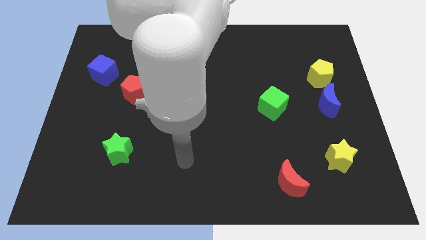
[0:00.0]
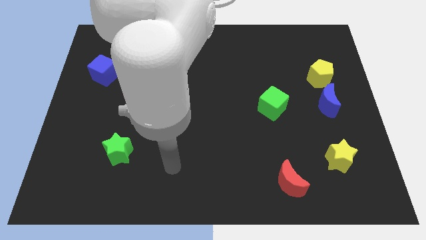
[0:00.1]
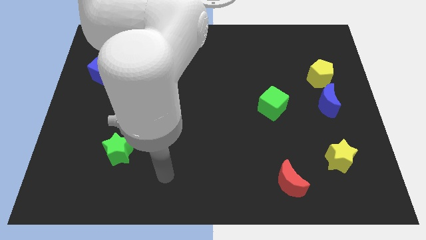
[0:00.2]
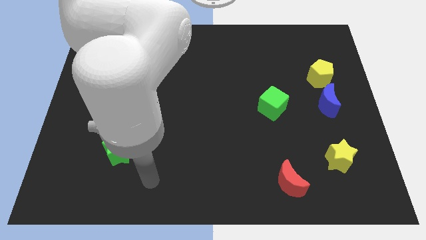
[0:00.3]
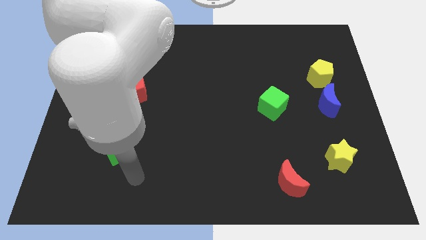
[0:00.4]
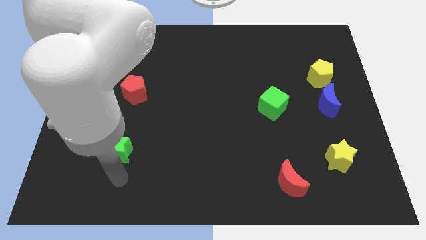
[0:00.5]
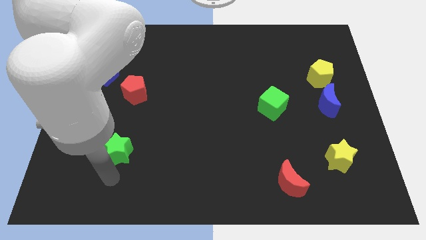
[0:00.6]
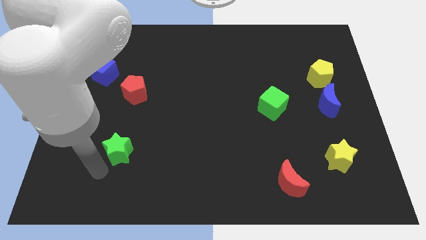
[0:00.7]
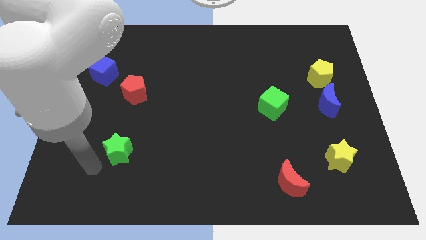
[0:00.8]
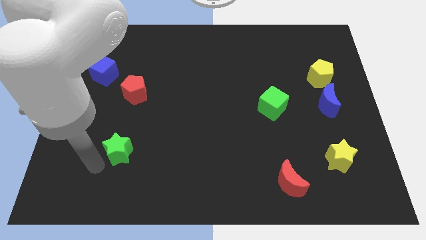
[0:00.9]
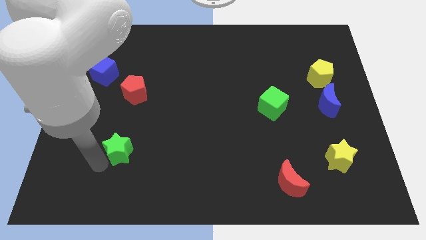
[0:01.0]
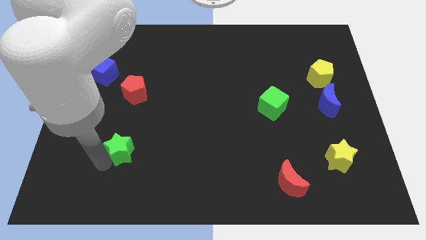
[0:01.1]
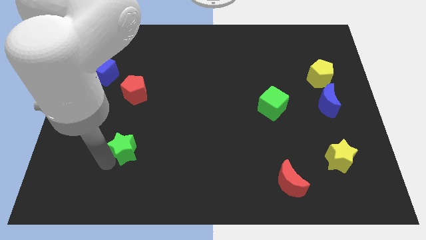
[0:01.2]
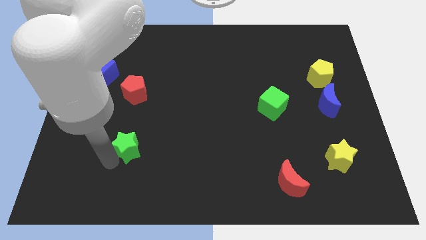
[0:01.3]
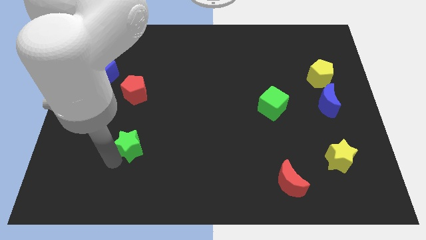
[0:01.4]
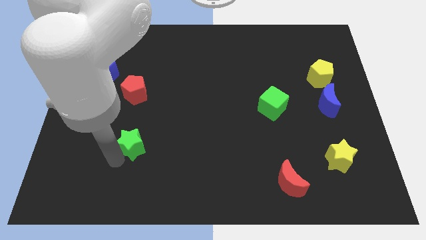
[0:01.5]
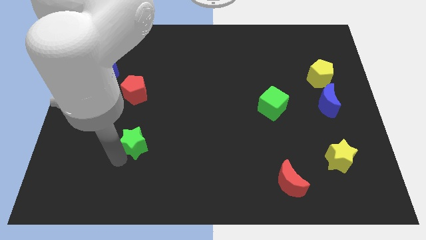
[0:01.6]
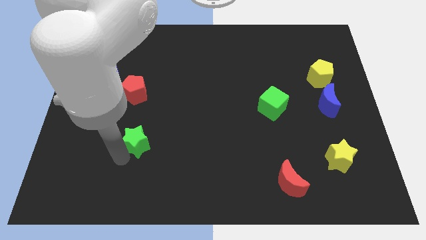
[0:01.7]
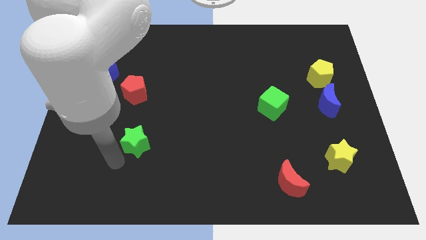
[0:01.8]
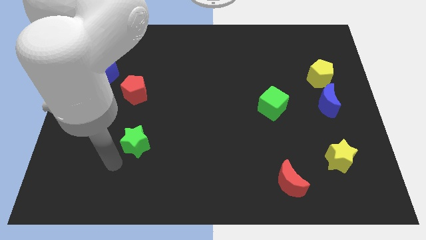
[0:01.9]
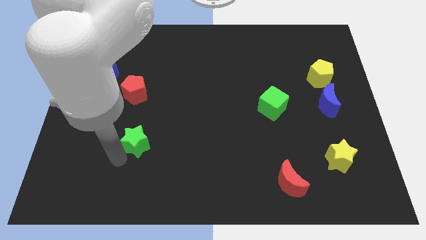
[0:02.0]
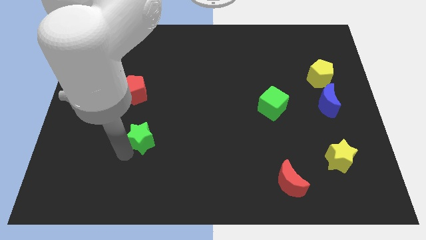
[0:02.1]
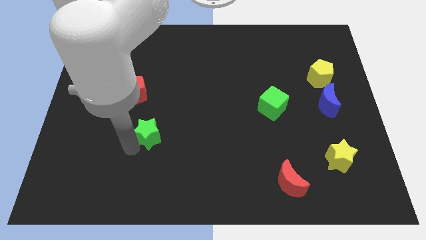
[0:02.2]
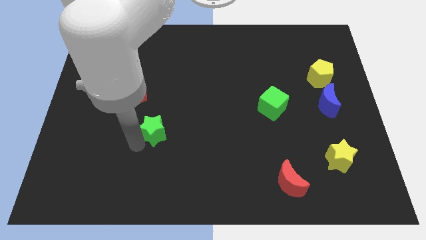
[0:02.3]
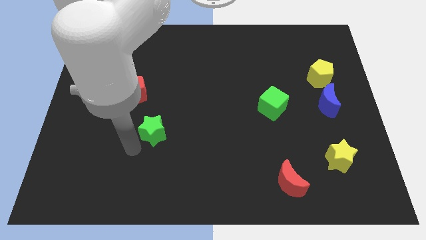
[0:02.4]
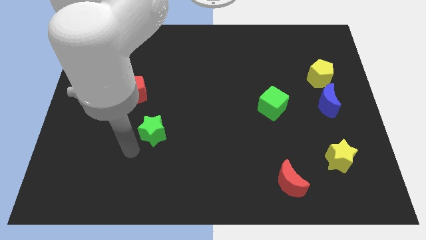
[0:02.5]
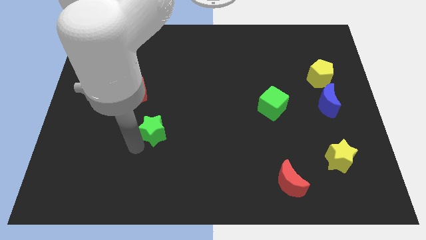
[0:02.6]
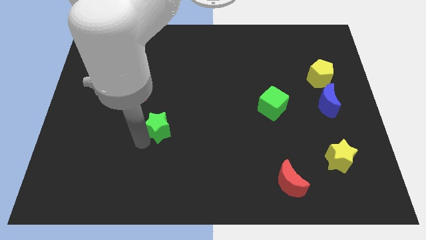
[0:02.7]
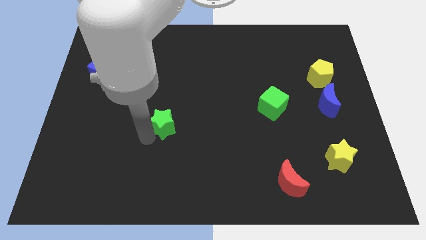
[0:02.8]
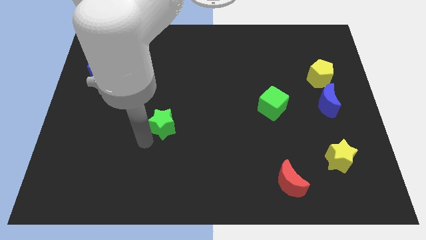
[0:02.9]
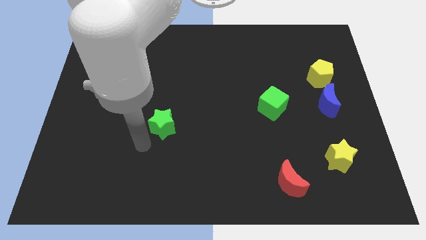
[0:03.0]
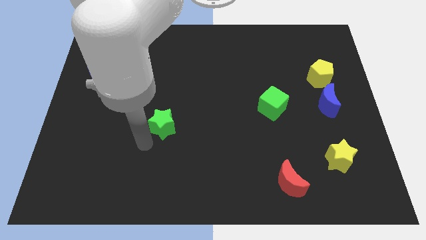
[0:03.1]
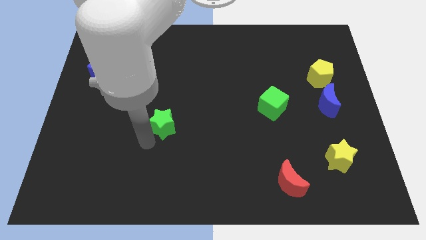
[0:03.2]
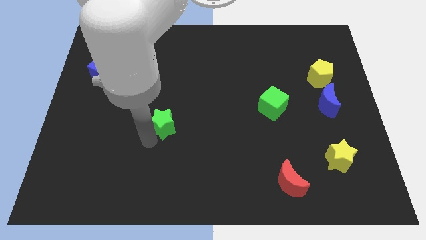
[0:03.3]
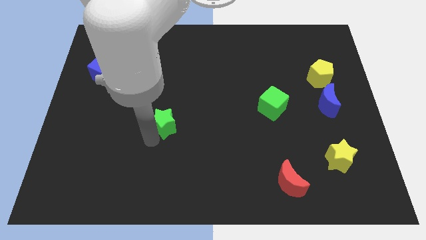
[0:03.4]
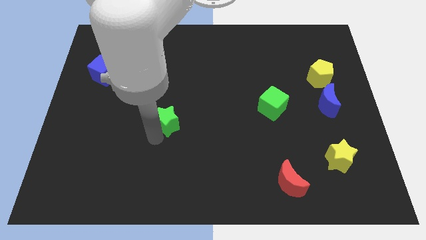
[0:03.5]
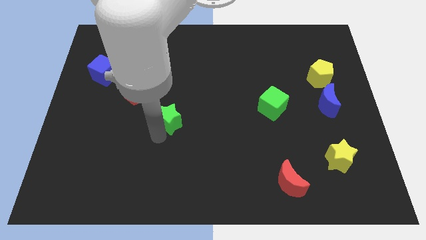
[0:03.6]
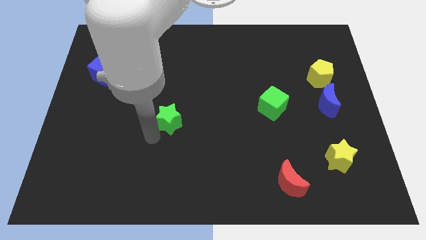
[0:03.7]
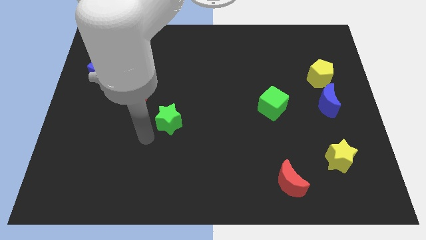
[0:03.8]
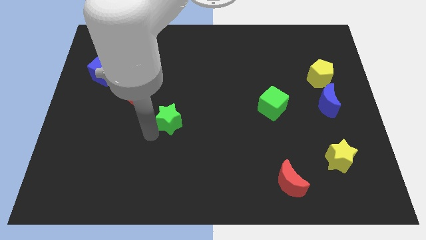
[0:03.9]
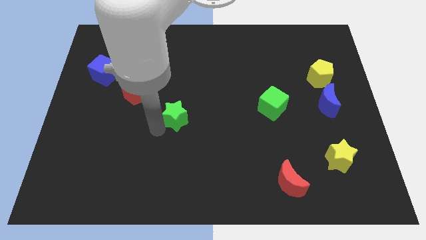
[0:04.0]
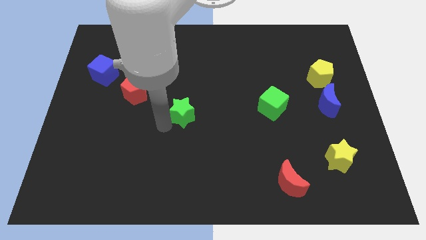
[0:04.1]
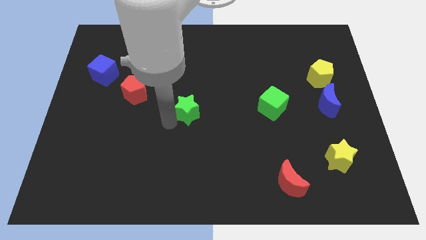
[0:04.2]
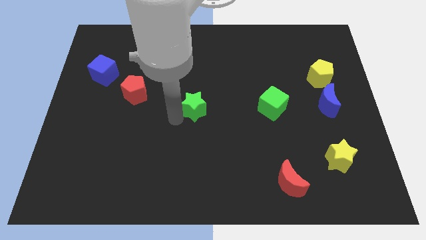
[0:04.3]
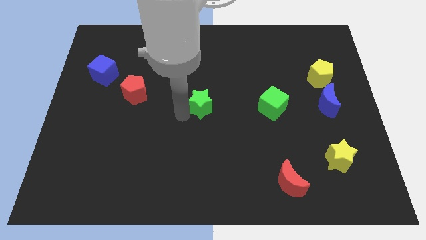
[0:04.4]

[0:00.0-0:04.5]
move the green star upwards and to the right diagonally

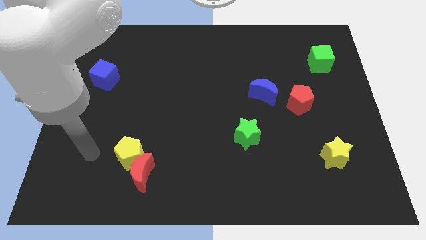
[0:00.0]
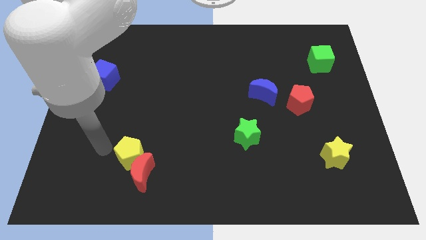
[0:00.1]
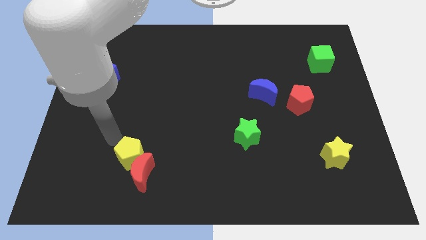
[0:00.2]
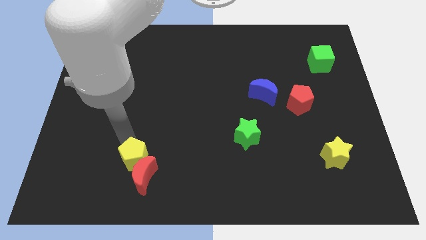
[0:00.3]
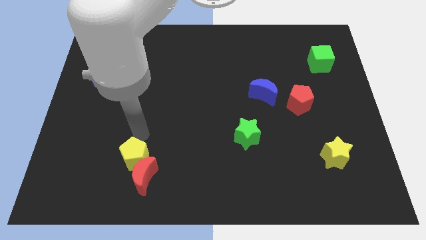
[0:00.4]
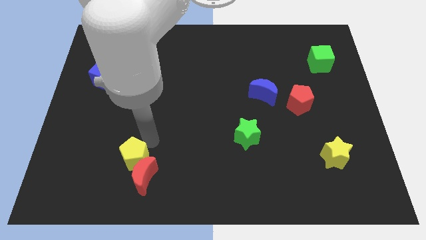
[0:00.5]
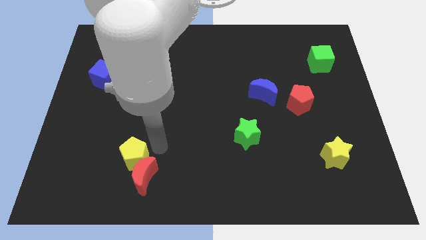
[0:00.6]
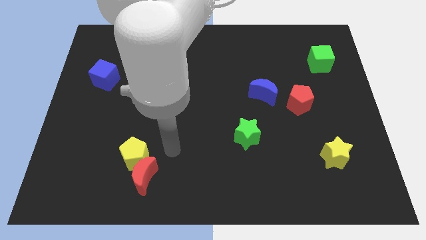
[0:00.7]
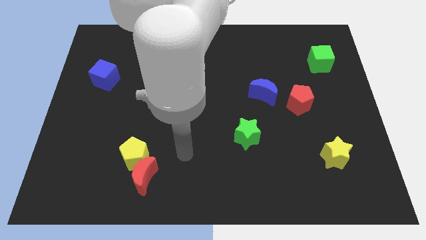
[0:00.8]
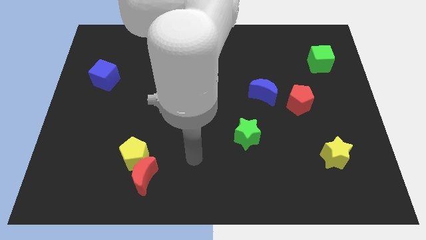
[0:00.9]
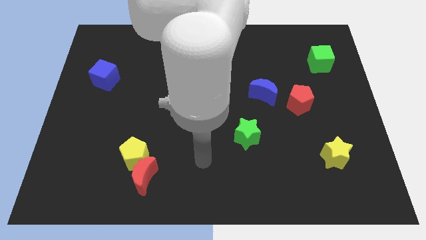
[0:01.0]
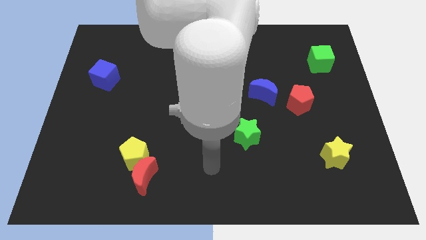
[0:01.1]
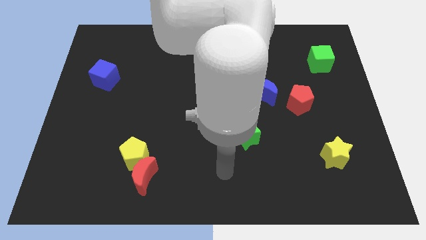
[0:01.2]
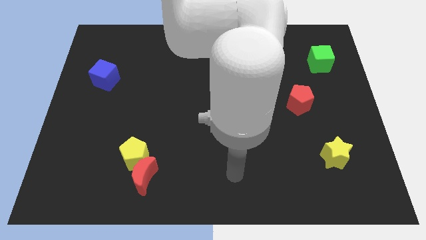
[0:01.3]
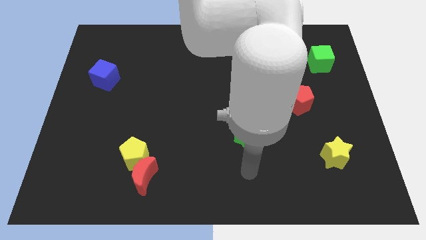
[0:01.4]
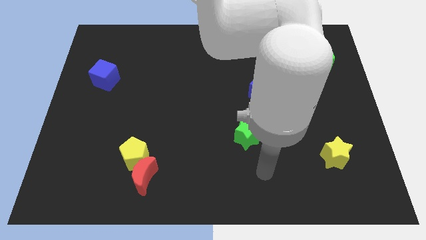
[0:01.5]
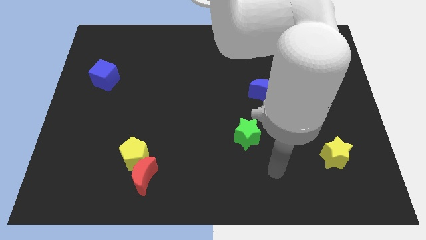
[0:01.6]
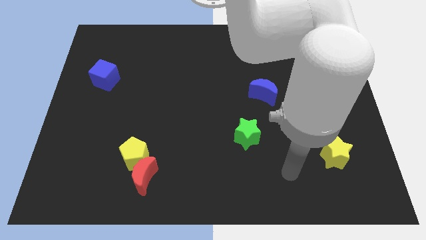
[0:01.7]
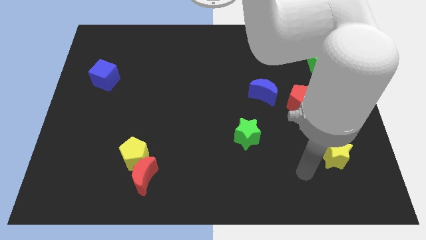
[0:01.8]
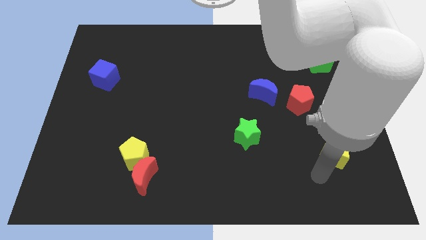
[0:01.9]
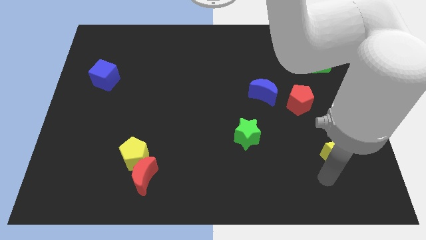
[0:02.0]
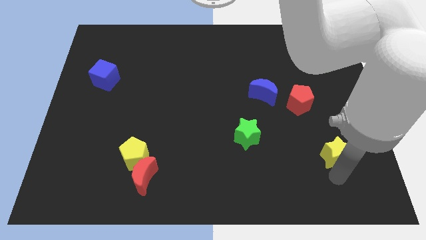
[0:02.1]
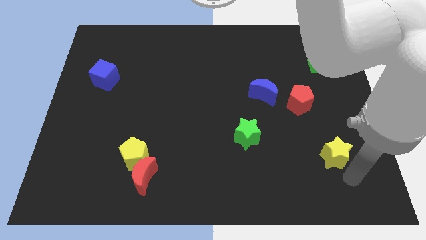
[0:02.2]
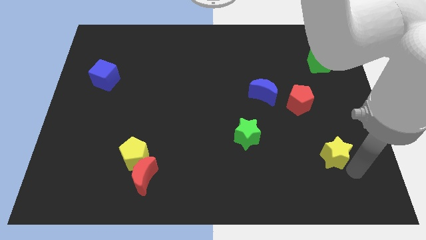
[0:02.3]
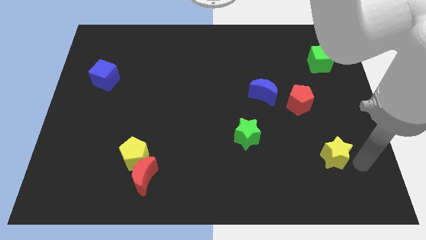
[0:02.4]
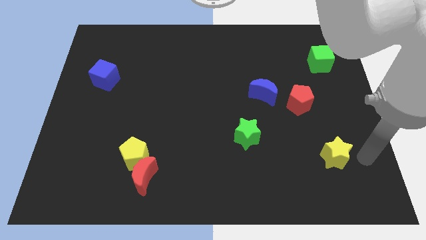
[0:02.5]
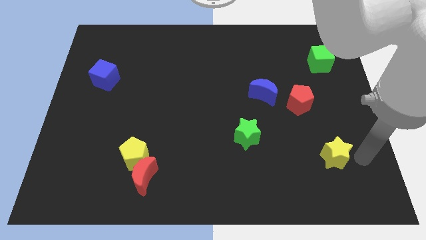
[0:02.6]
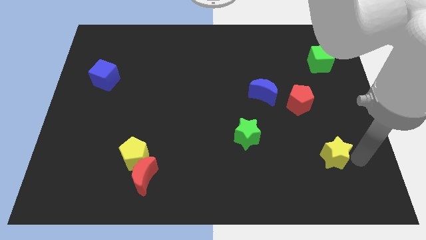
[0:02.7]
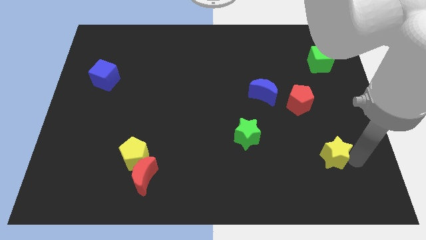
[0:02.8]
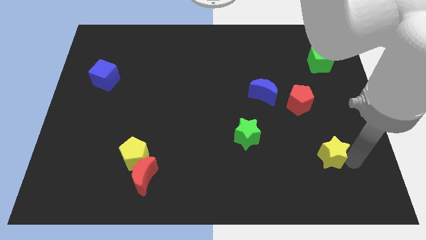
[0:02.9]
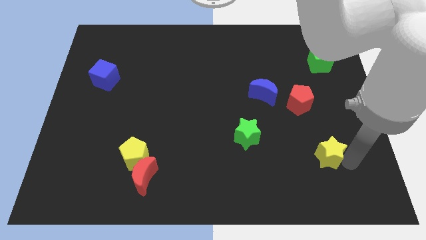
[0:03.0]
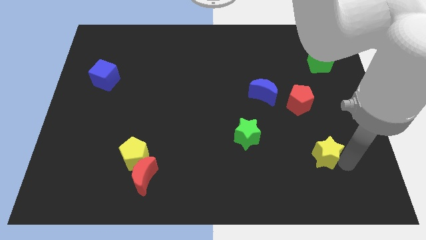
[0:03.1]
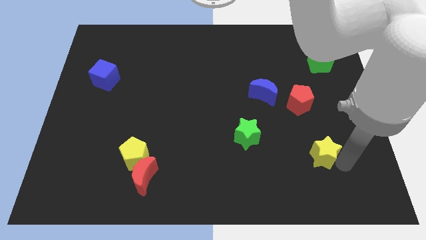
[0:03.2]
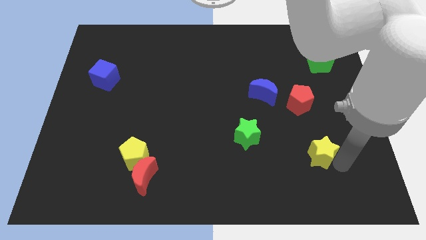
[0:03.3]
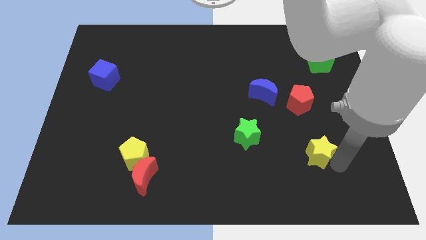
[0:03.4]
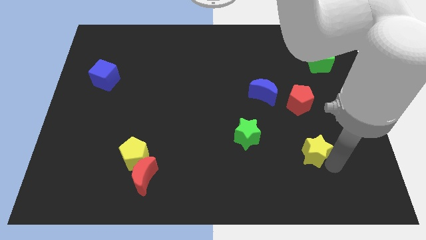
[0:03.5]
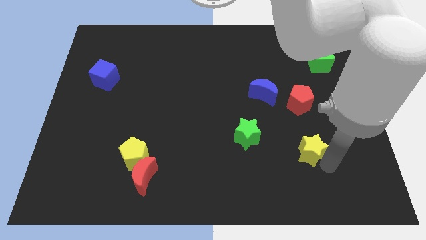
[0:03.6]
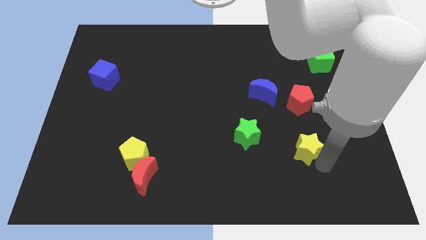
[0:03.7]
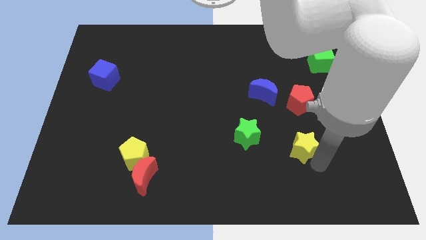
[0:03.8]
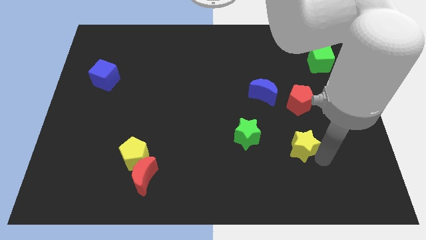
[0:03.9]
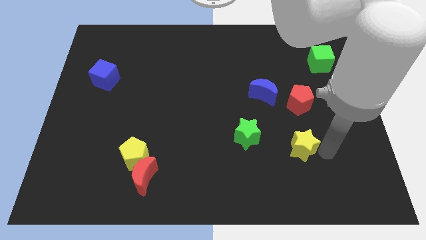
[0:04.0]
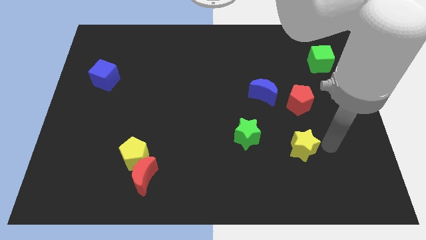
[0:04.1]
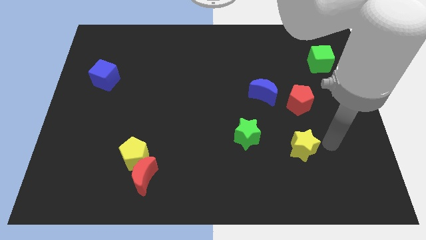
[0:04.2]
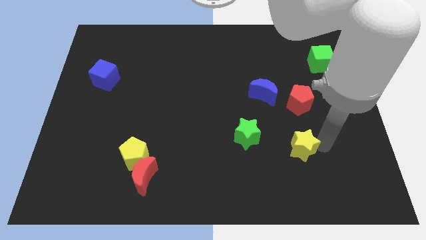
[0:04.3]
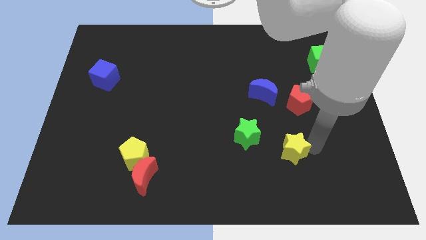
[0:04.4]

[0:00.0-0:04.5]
slightly push the yellow star to the left
